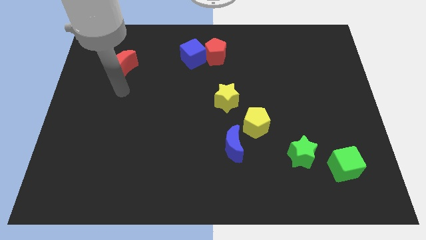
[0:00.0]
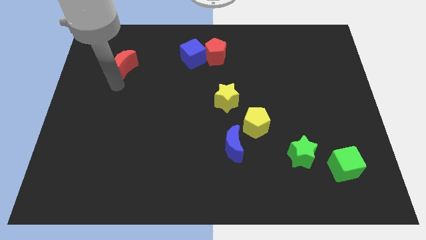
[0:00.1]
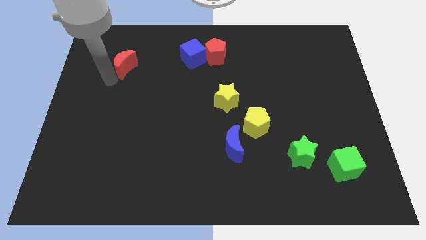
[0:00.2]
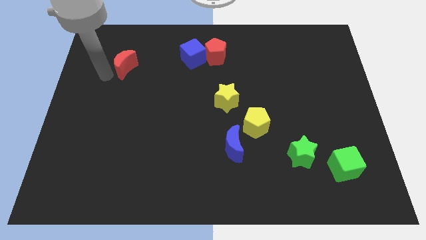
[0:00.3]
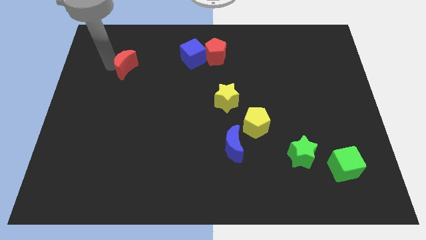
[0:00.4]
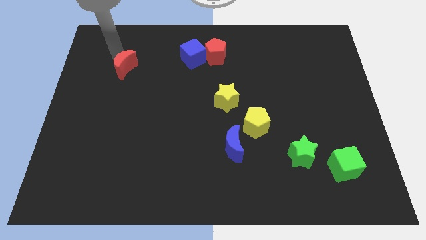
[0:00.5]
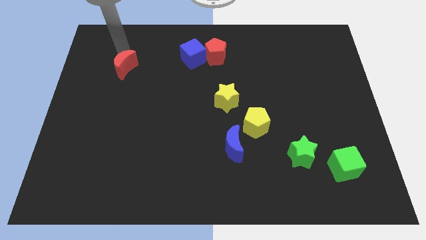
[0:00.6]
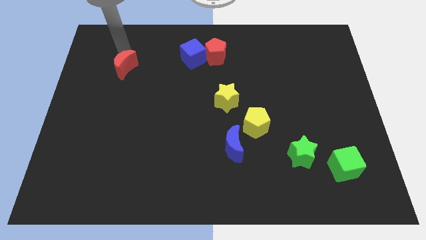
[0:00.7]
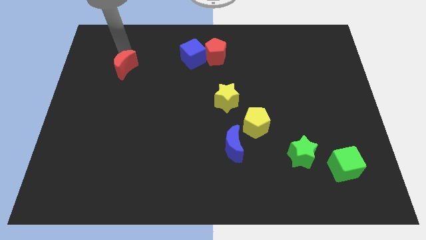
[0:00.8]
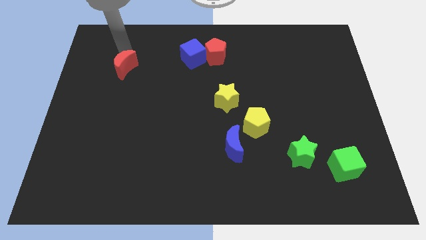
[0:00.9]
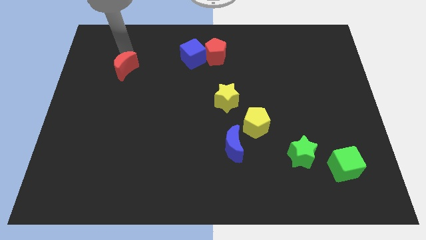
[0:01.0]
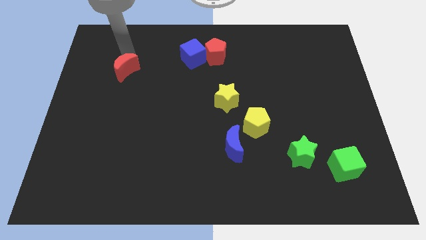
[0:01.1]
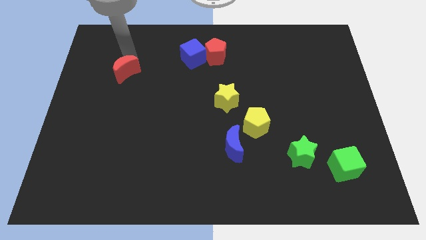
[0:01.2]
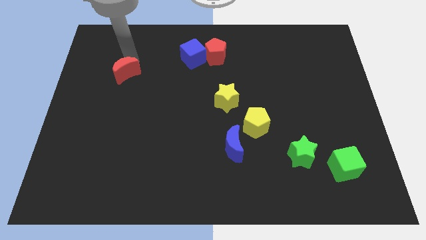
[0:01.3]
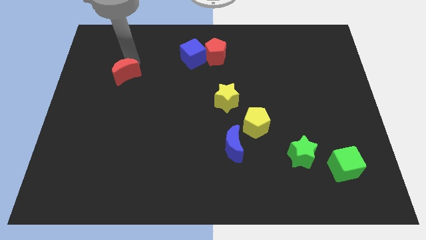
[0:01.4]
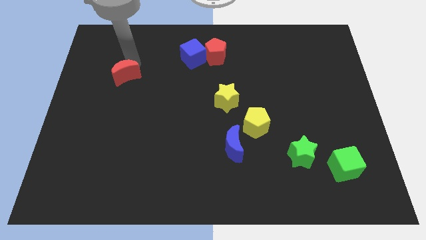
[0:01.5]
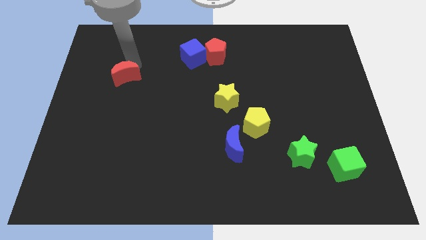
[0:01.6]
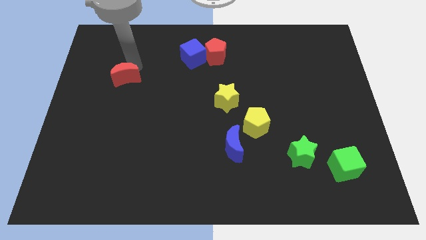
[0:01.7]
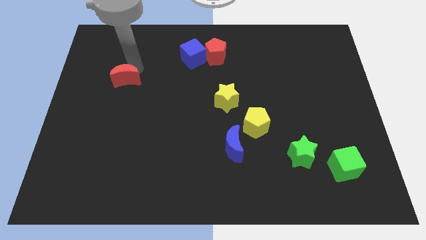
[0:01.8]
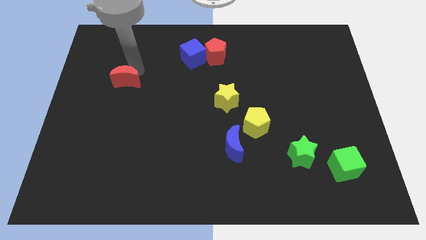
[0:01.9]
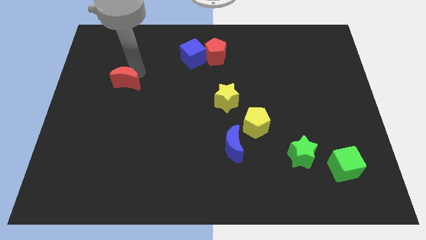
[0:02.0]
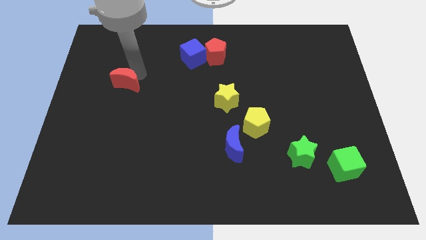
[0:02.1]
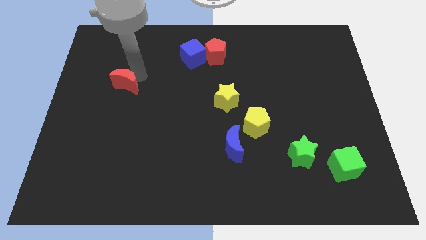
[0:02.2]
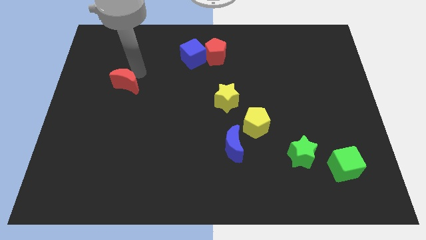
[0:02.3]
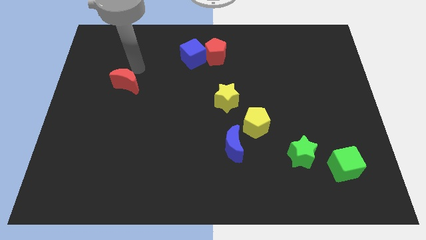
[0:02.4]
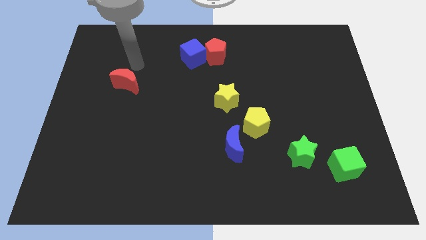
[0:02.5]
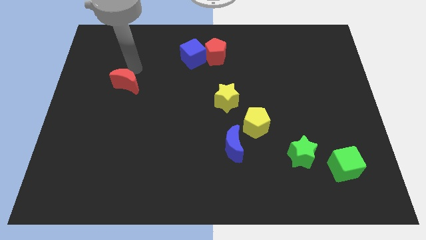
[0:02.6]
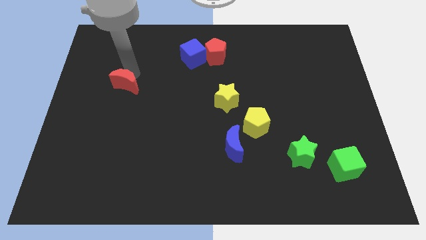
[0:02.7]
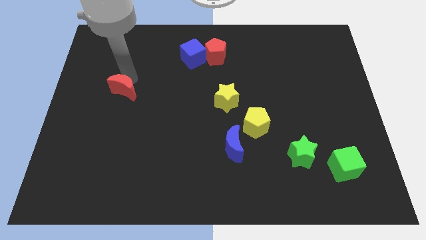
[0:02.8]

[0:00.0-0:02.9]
slightly move the red moon downwards

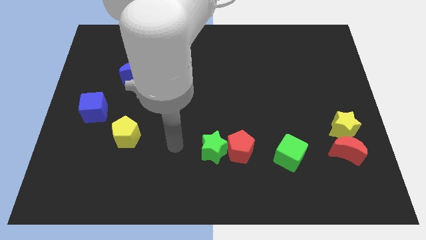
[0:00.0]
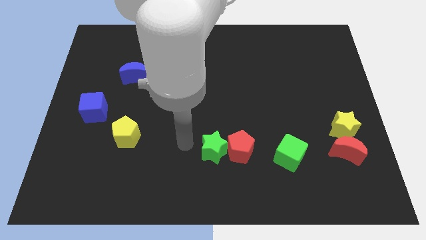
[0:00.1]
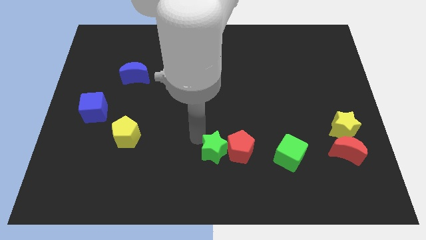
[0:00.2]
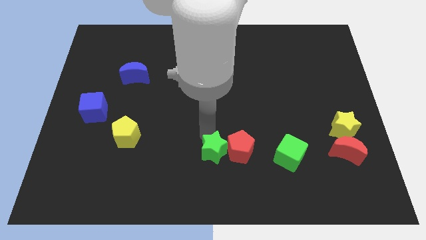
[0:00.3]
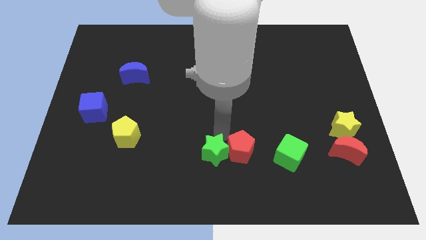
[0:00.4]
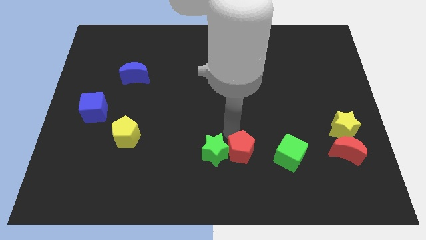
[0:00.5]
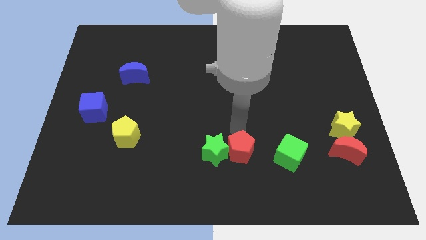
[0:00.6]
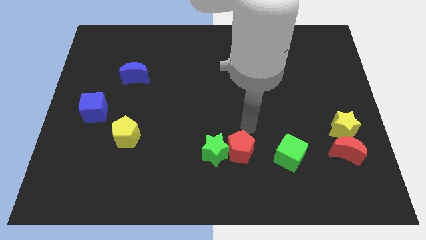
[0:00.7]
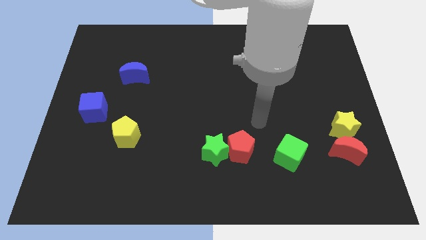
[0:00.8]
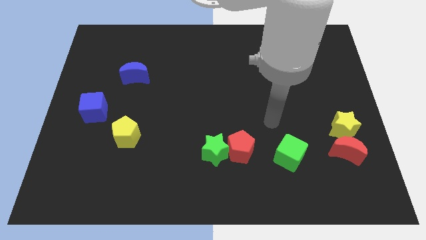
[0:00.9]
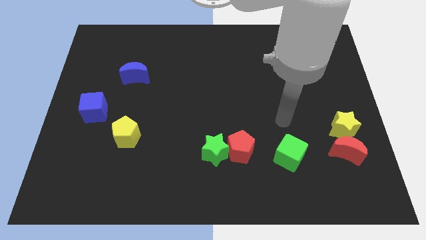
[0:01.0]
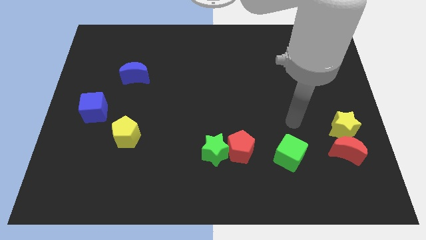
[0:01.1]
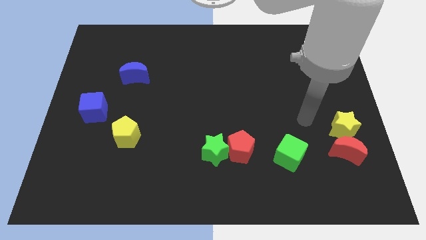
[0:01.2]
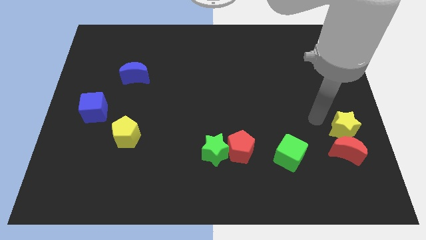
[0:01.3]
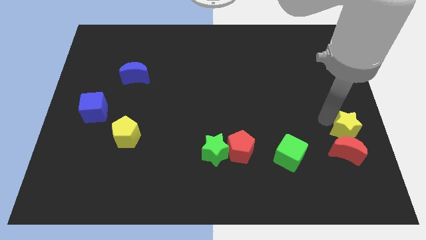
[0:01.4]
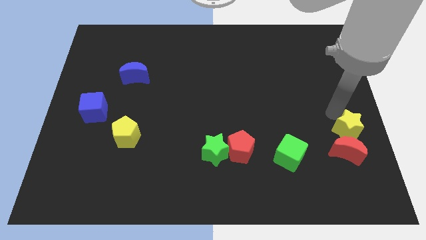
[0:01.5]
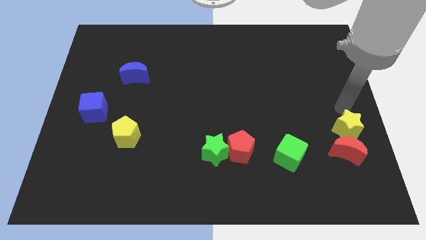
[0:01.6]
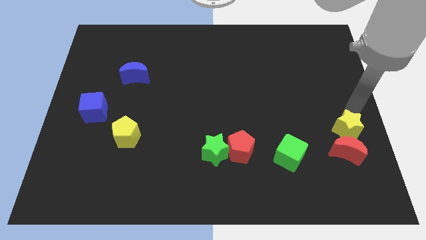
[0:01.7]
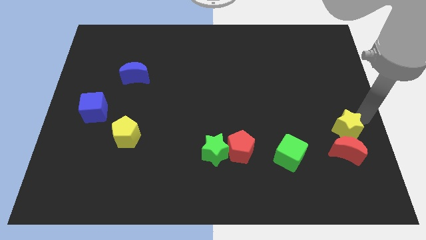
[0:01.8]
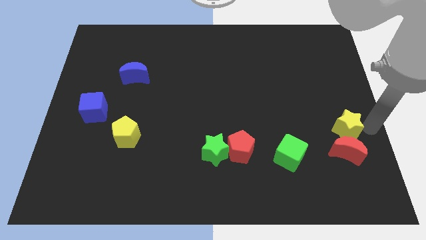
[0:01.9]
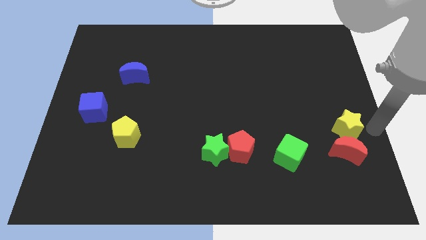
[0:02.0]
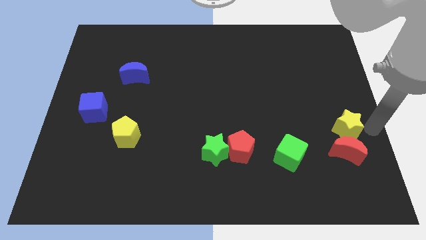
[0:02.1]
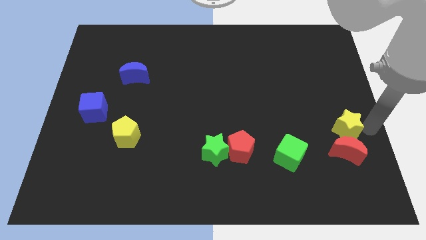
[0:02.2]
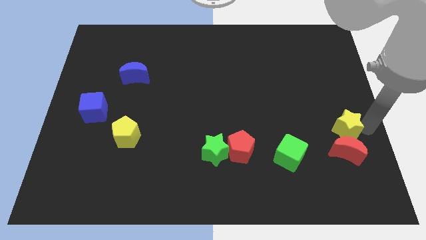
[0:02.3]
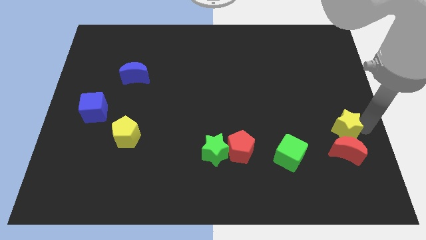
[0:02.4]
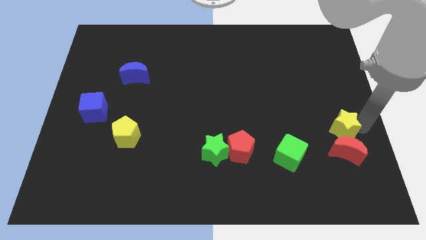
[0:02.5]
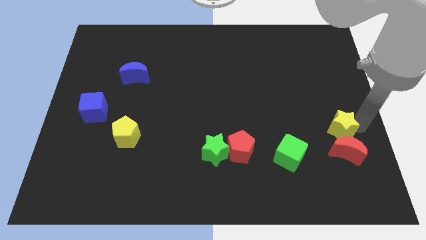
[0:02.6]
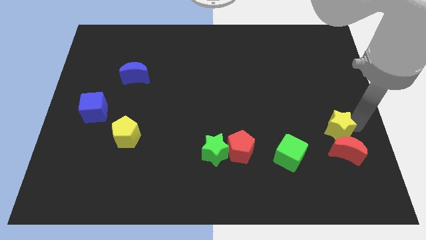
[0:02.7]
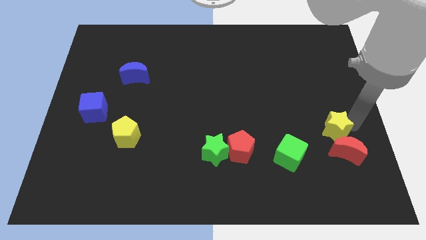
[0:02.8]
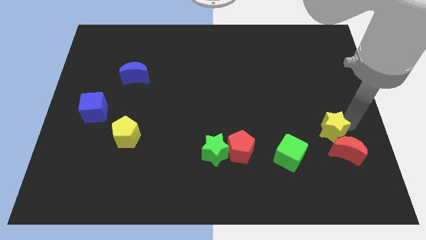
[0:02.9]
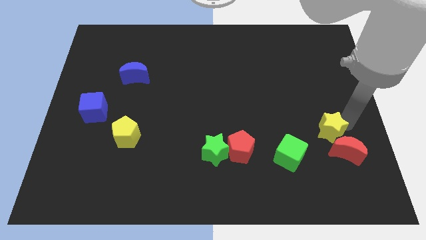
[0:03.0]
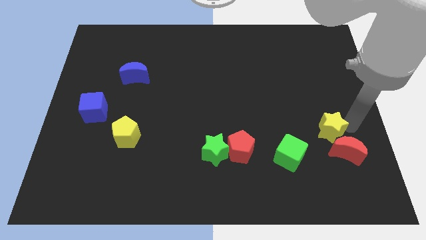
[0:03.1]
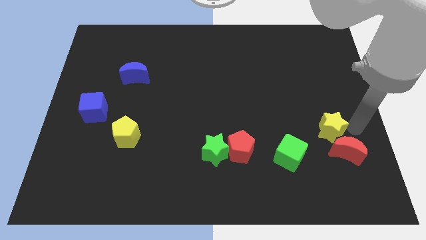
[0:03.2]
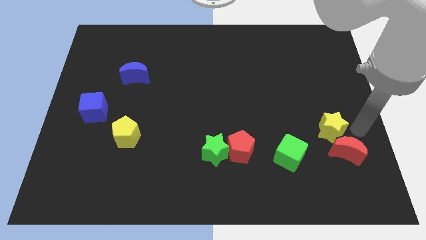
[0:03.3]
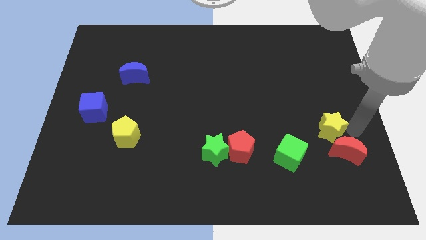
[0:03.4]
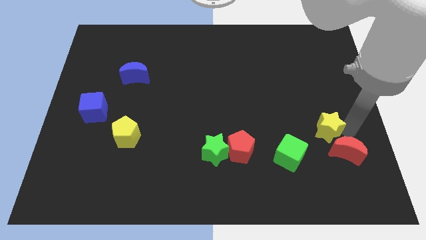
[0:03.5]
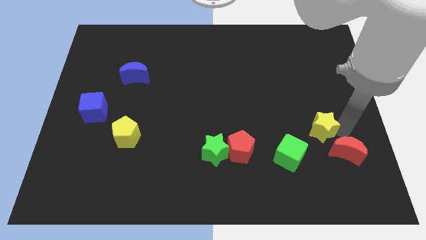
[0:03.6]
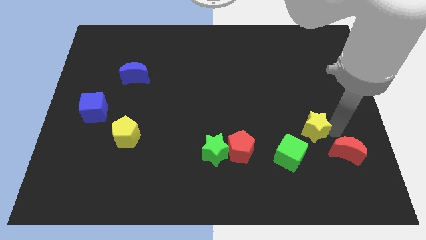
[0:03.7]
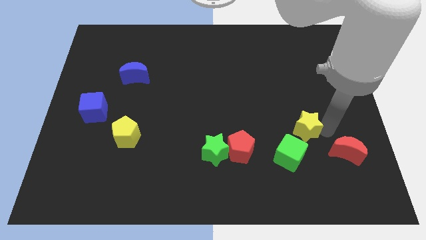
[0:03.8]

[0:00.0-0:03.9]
slightly push the yellow star to the left

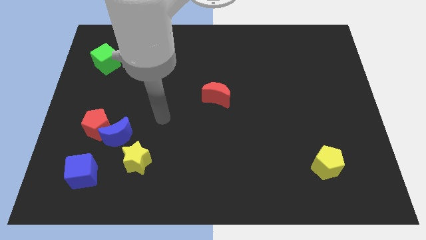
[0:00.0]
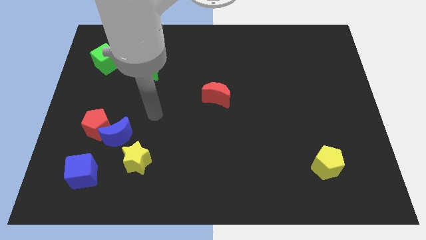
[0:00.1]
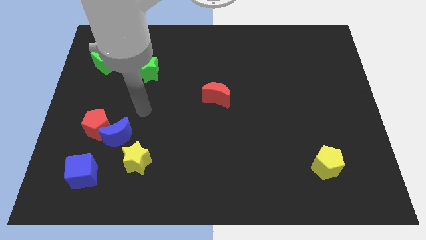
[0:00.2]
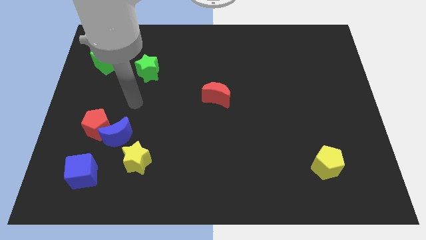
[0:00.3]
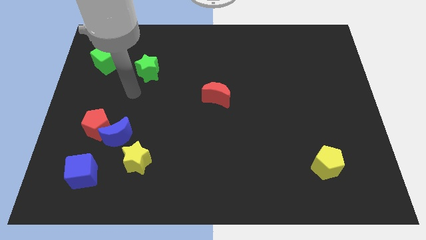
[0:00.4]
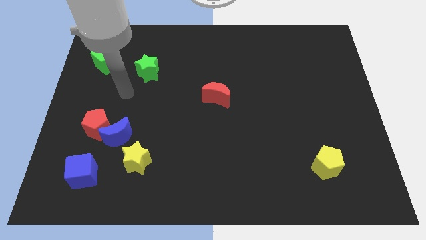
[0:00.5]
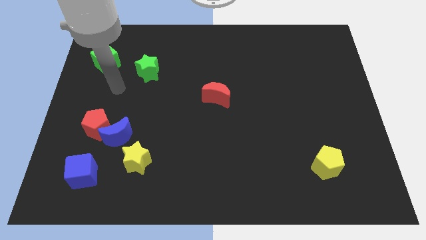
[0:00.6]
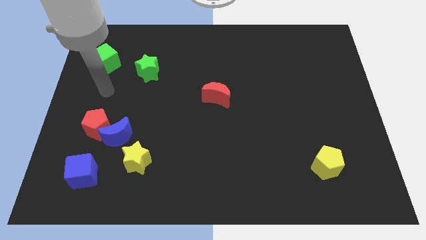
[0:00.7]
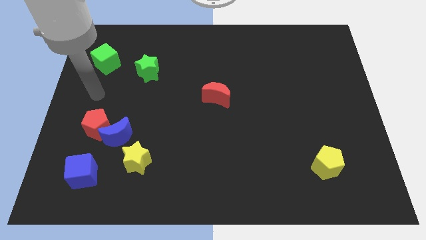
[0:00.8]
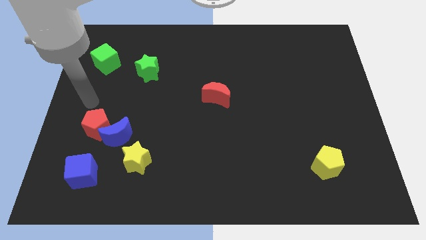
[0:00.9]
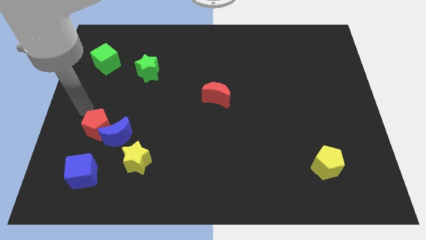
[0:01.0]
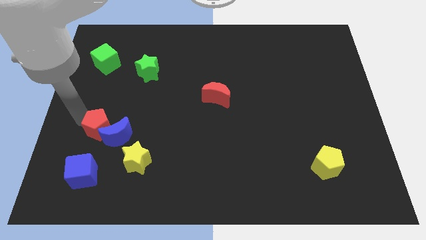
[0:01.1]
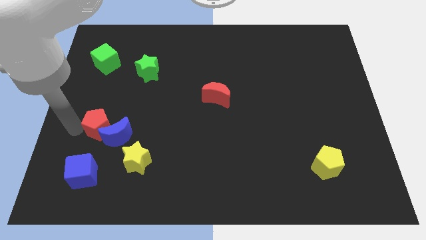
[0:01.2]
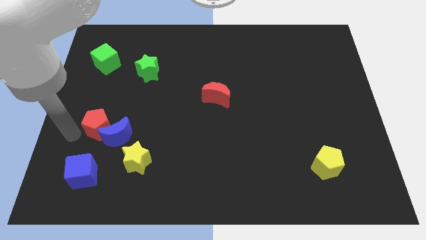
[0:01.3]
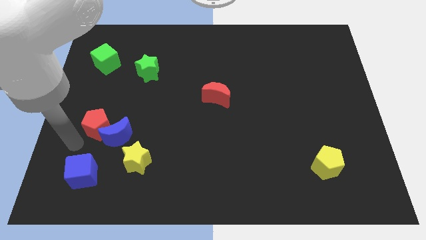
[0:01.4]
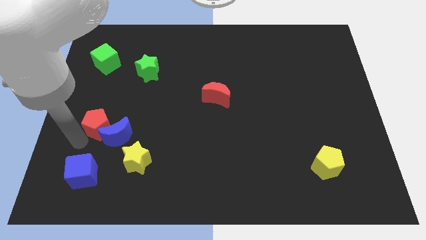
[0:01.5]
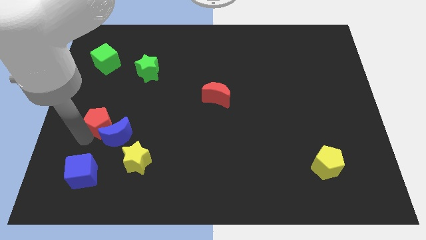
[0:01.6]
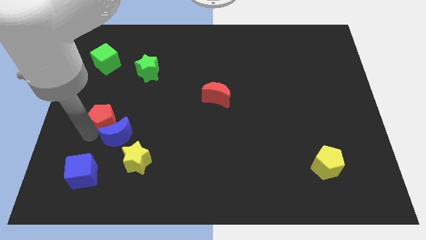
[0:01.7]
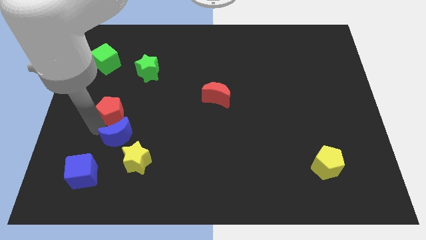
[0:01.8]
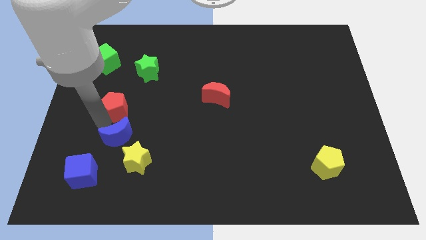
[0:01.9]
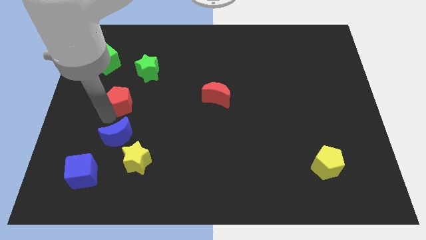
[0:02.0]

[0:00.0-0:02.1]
push the red pentagon upwards and to the right slightly
